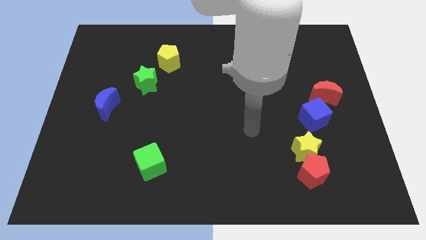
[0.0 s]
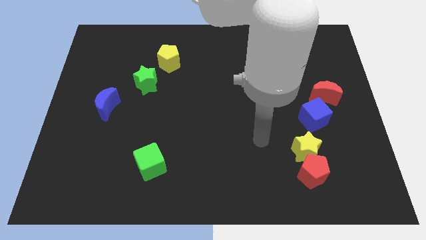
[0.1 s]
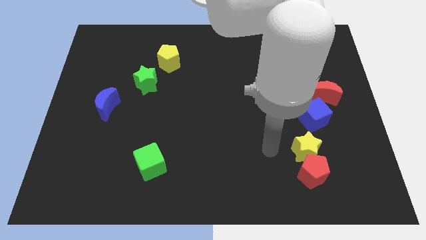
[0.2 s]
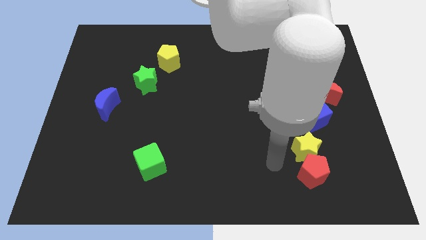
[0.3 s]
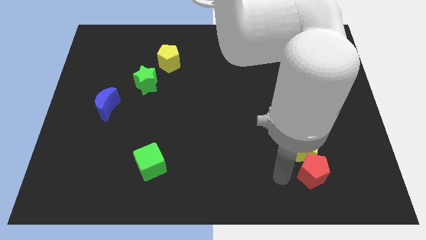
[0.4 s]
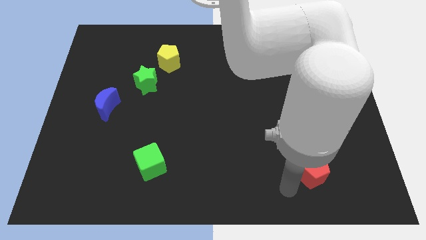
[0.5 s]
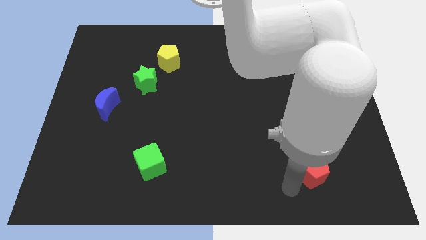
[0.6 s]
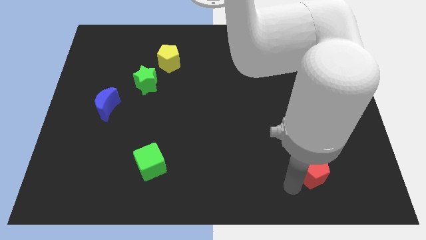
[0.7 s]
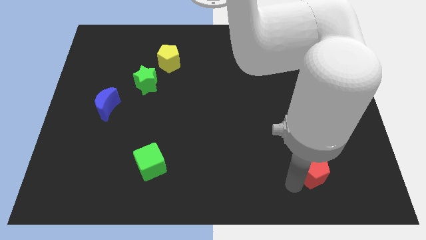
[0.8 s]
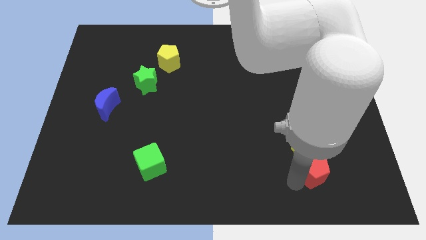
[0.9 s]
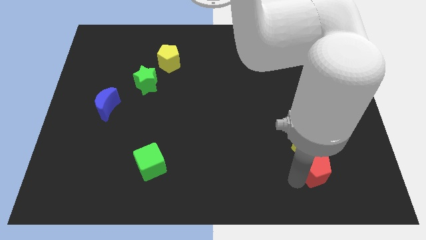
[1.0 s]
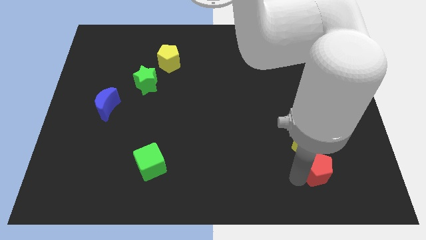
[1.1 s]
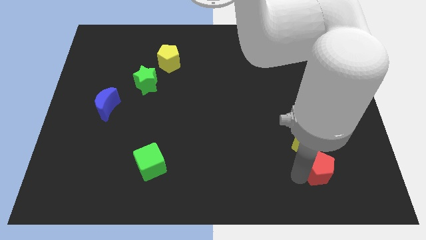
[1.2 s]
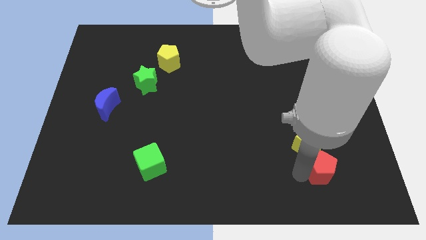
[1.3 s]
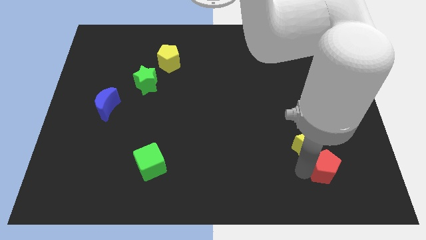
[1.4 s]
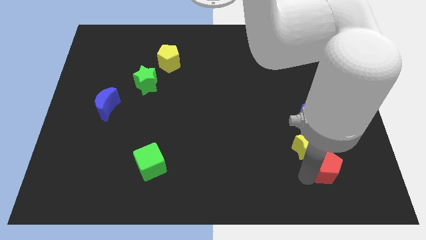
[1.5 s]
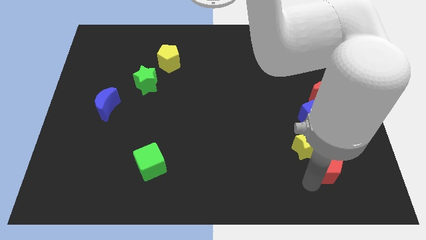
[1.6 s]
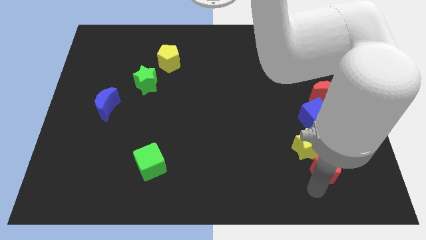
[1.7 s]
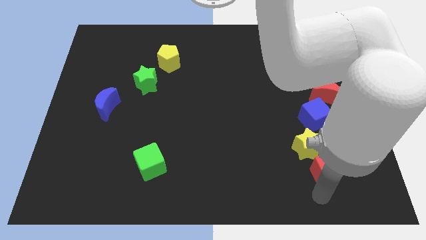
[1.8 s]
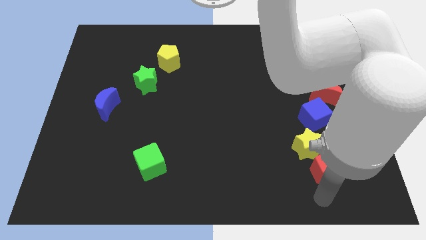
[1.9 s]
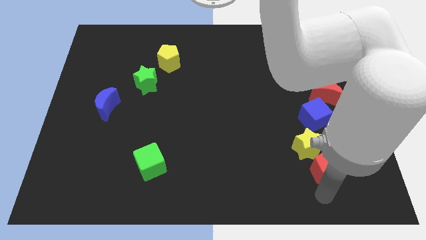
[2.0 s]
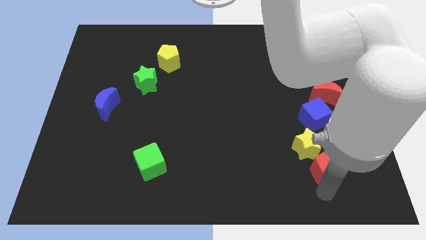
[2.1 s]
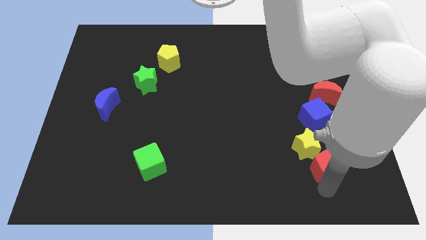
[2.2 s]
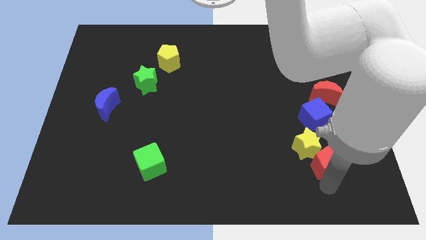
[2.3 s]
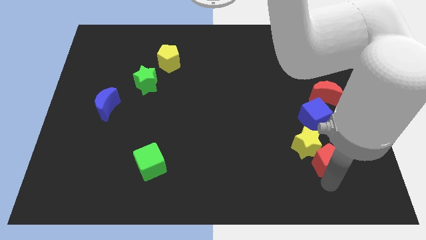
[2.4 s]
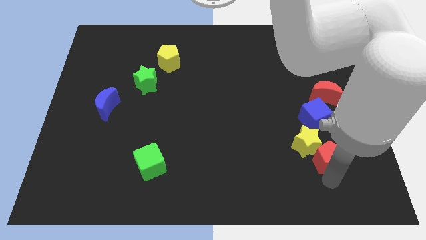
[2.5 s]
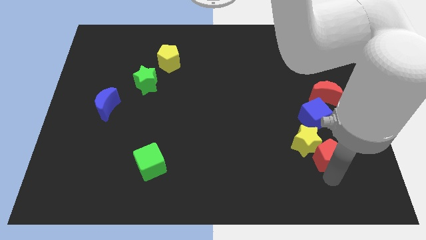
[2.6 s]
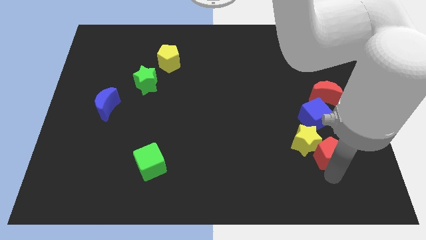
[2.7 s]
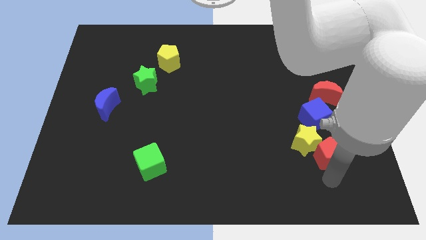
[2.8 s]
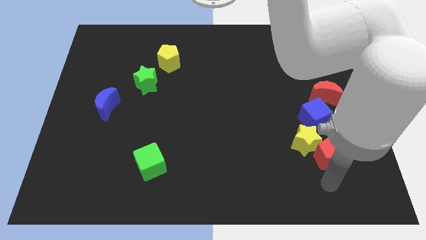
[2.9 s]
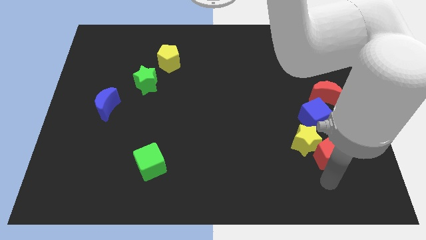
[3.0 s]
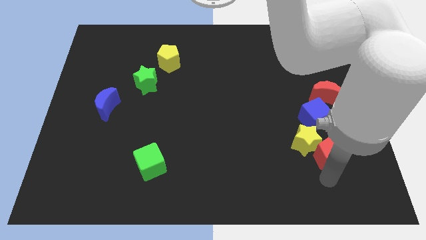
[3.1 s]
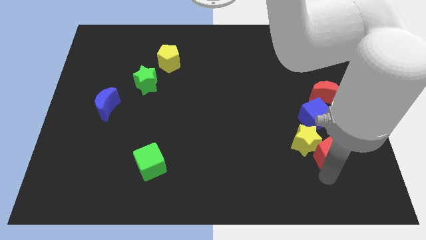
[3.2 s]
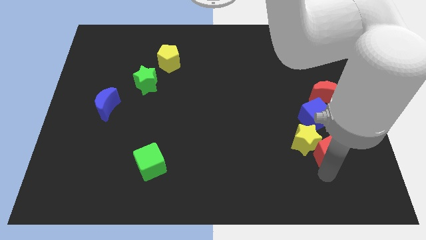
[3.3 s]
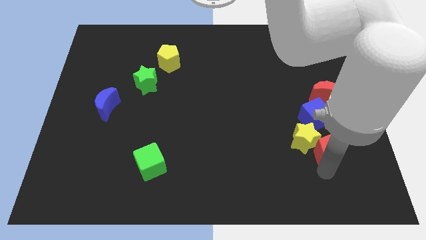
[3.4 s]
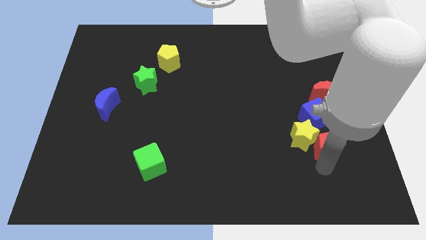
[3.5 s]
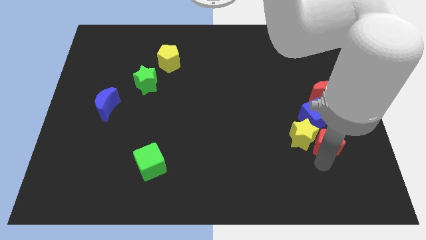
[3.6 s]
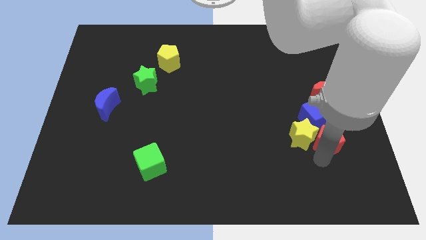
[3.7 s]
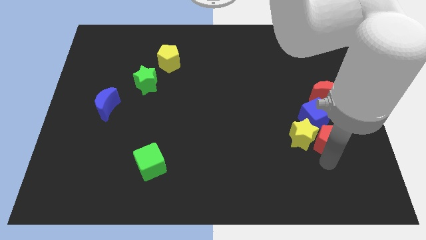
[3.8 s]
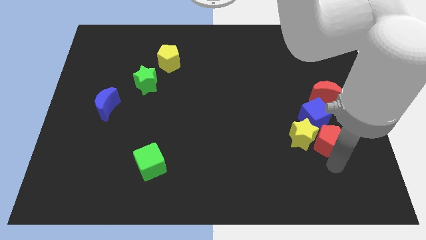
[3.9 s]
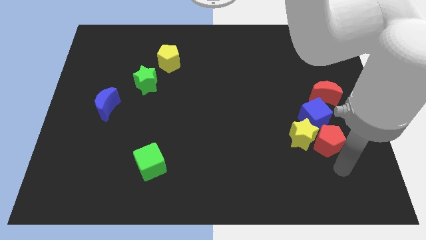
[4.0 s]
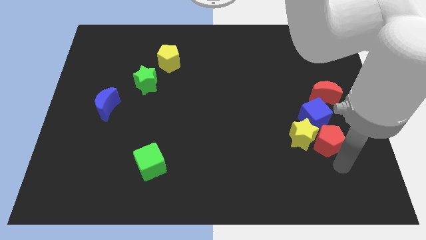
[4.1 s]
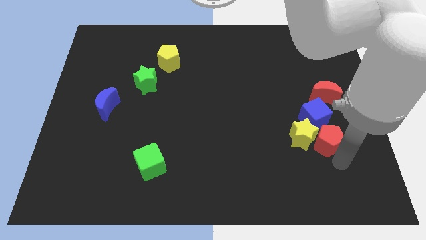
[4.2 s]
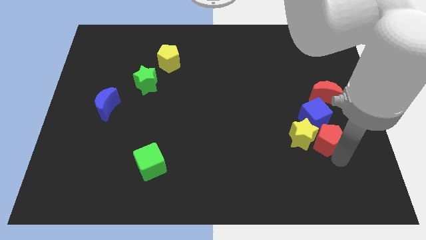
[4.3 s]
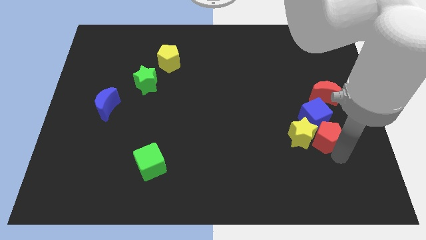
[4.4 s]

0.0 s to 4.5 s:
move the red pentagon next to the blue cube

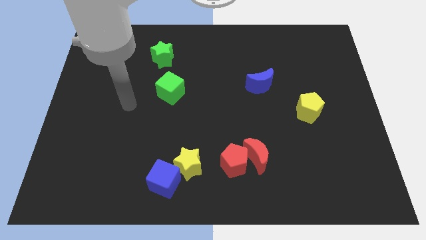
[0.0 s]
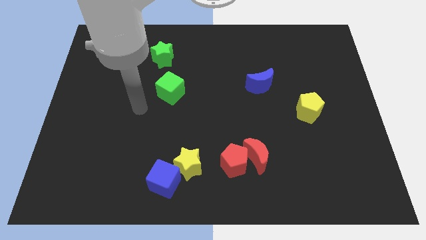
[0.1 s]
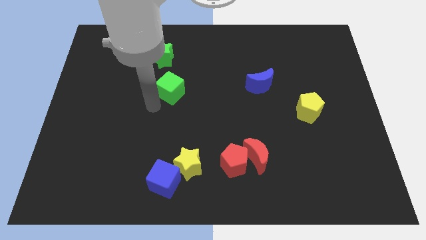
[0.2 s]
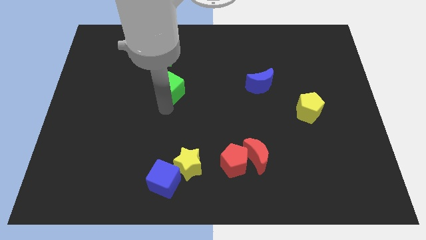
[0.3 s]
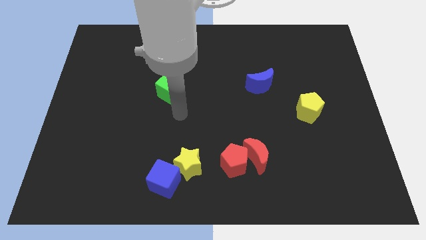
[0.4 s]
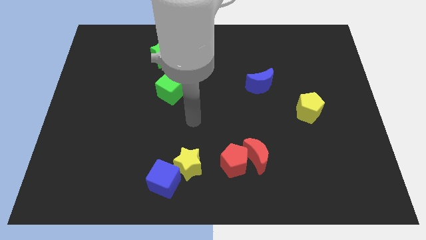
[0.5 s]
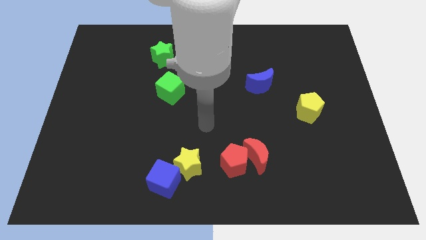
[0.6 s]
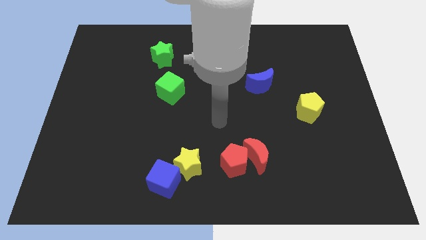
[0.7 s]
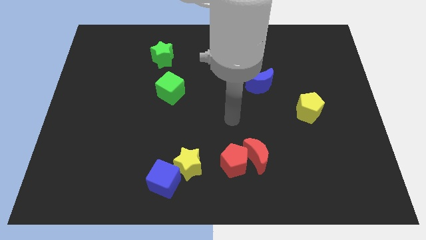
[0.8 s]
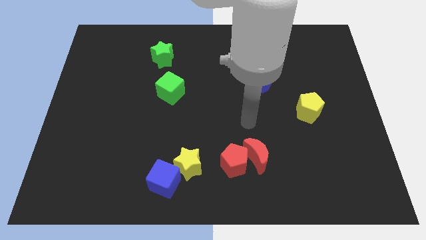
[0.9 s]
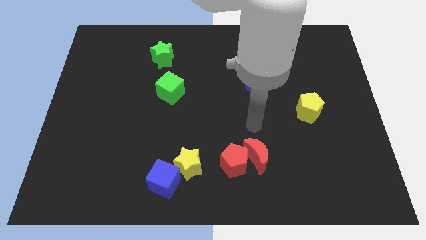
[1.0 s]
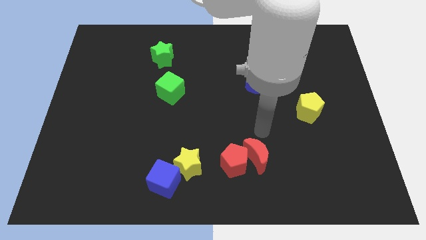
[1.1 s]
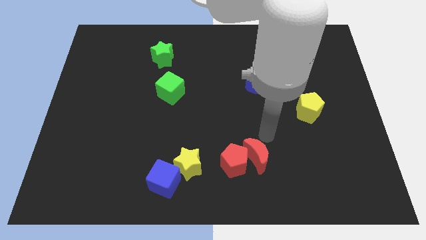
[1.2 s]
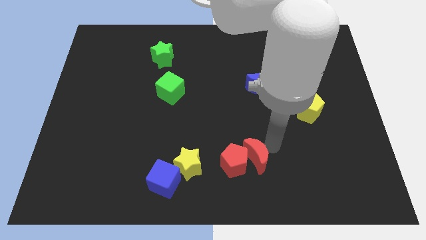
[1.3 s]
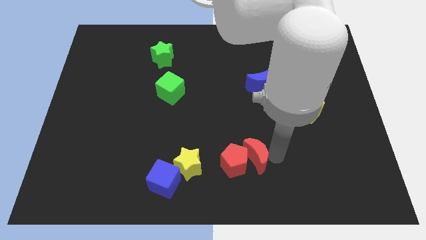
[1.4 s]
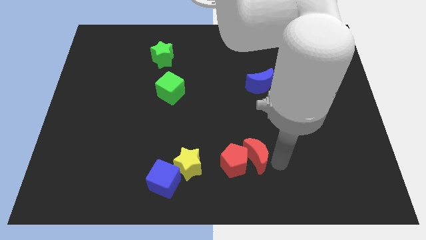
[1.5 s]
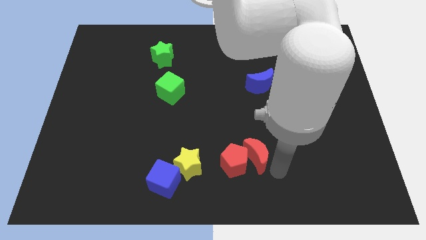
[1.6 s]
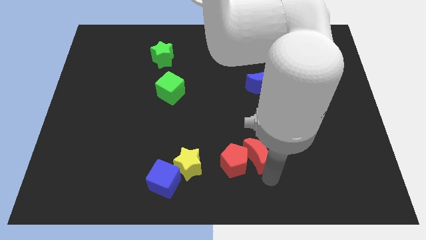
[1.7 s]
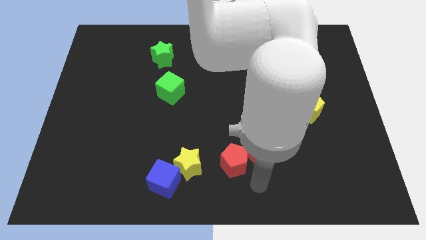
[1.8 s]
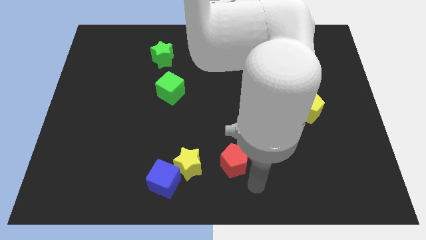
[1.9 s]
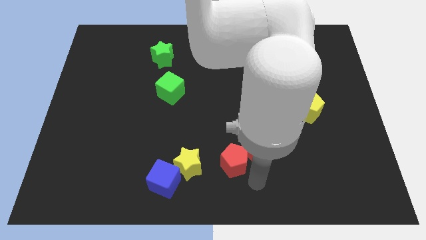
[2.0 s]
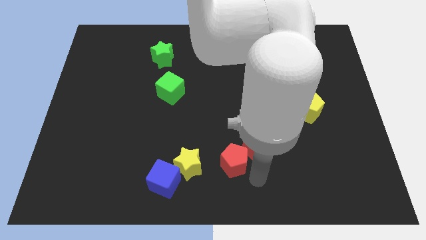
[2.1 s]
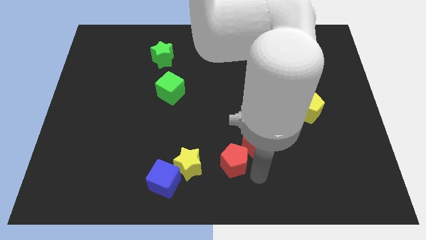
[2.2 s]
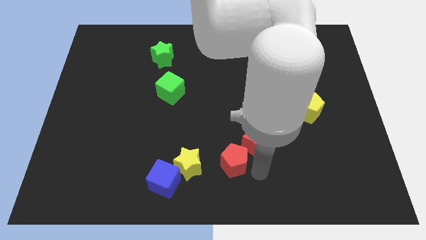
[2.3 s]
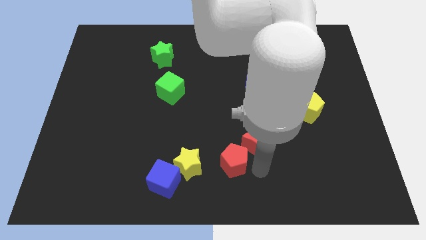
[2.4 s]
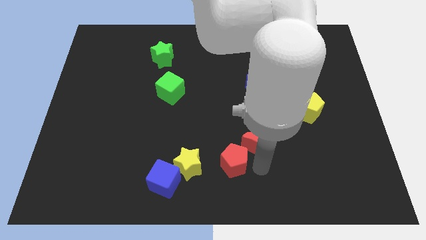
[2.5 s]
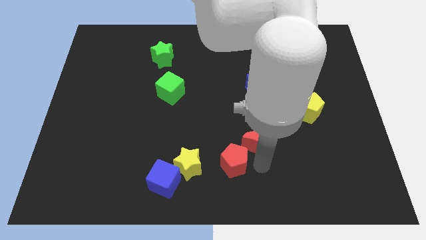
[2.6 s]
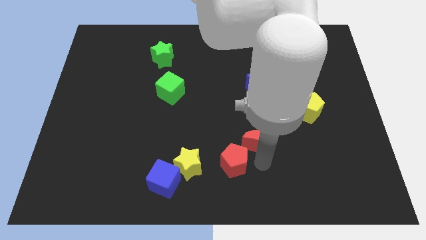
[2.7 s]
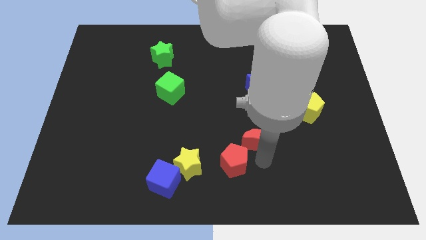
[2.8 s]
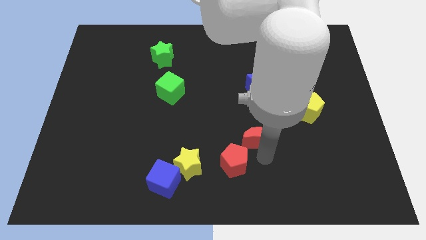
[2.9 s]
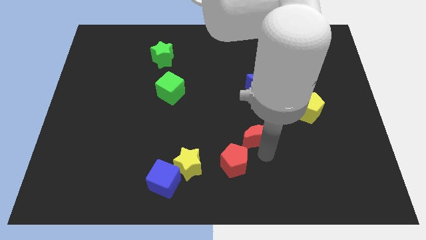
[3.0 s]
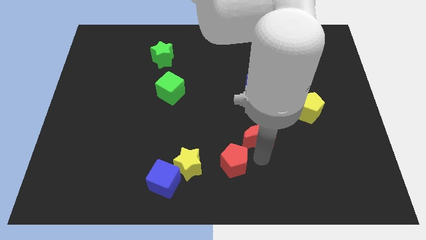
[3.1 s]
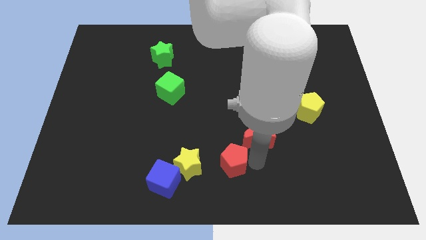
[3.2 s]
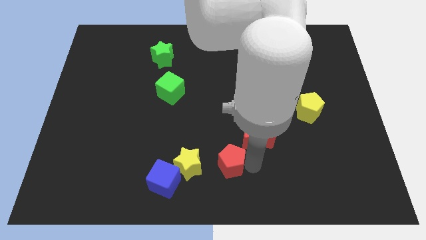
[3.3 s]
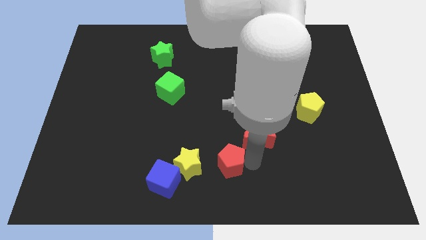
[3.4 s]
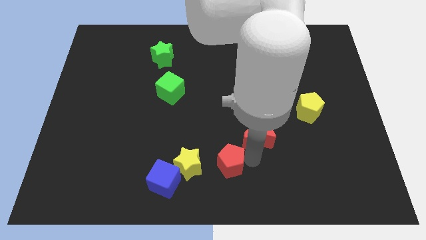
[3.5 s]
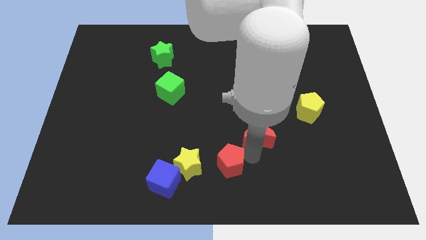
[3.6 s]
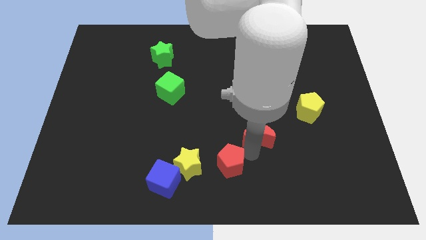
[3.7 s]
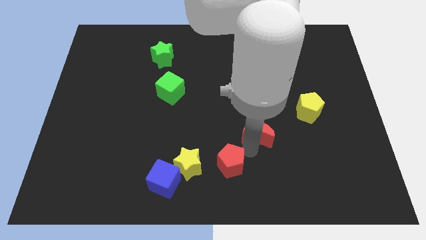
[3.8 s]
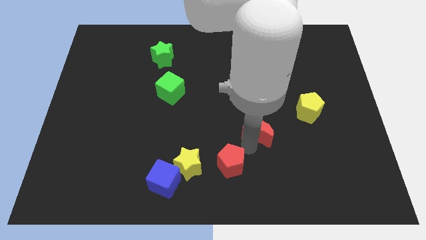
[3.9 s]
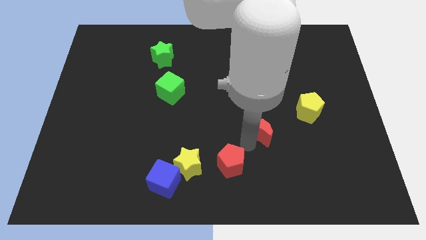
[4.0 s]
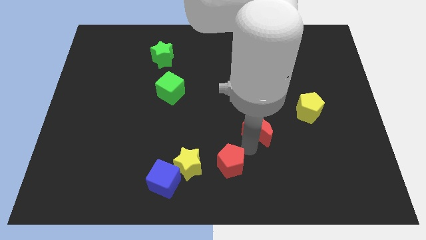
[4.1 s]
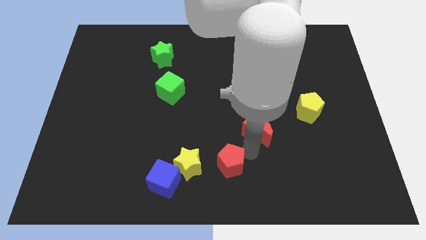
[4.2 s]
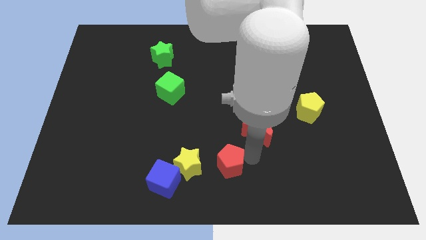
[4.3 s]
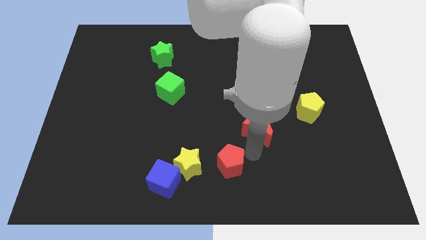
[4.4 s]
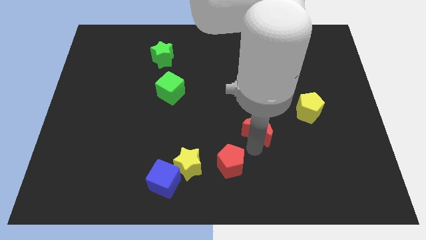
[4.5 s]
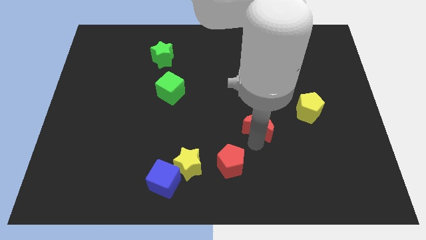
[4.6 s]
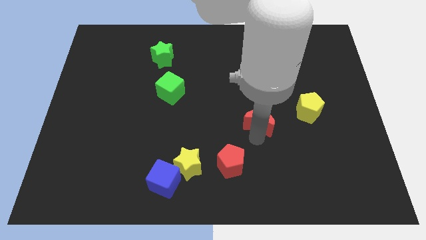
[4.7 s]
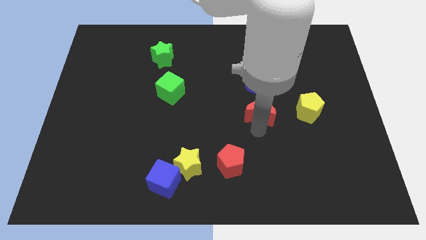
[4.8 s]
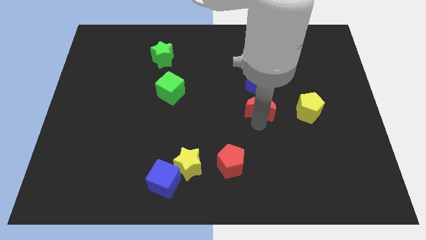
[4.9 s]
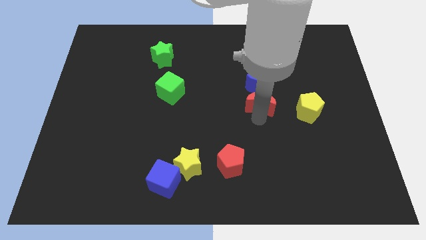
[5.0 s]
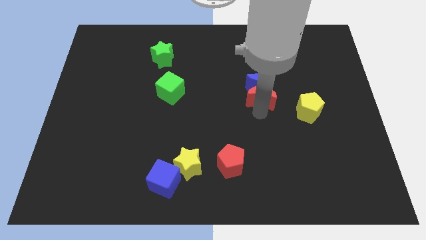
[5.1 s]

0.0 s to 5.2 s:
move the red moon close to the blue moon
